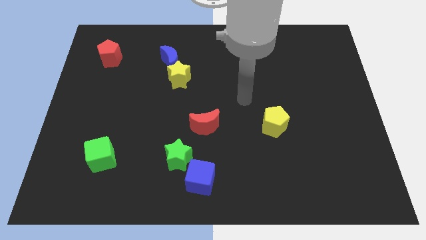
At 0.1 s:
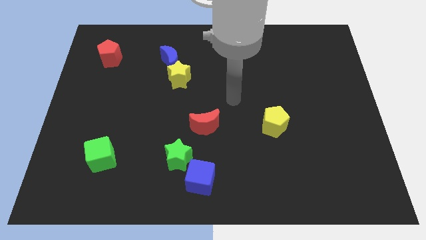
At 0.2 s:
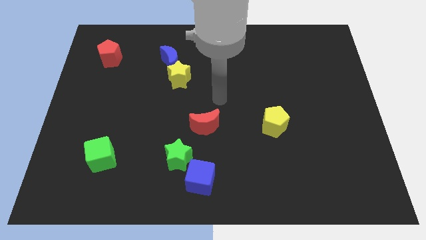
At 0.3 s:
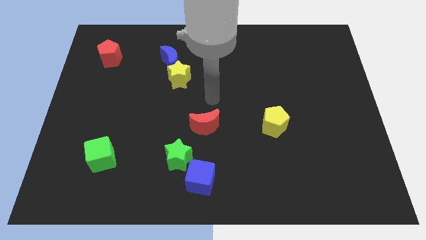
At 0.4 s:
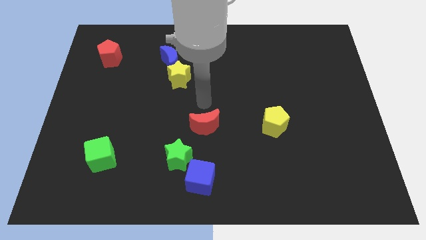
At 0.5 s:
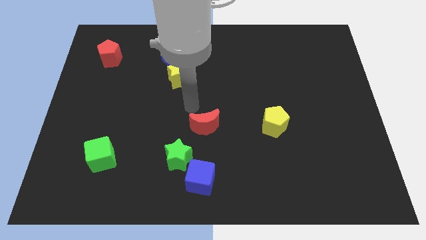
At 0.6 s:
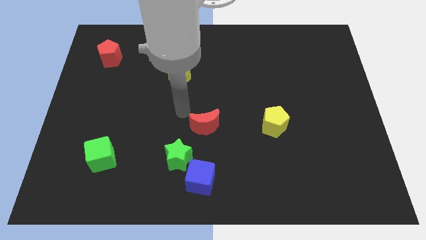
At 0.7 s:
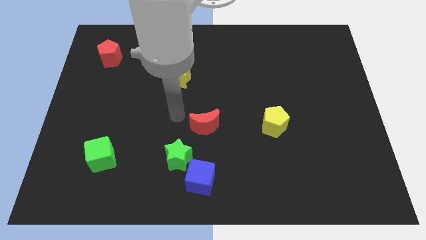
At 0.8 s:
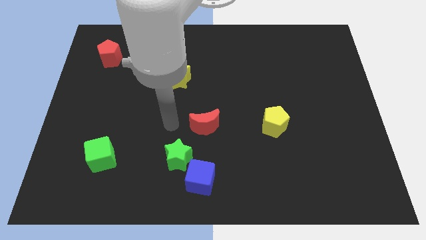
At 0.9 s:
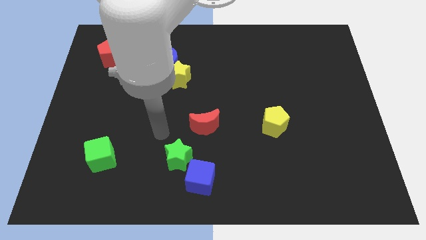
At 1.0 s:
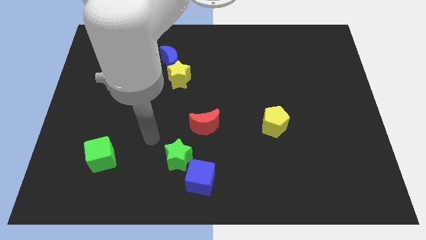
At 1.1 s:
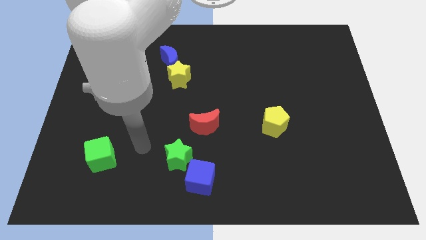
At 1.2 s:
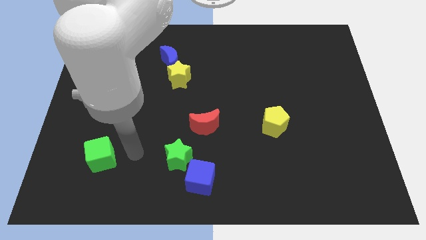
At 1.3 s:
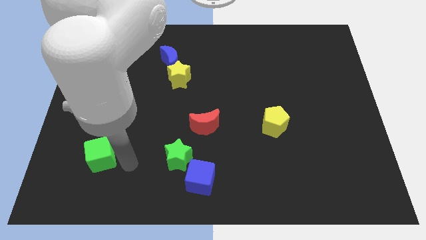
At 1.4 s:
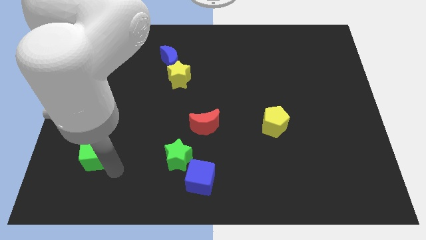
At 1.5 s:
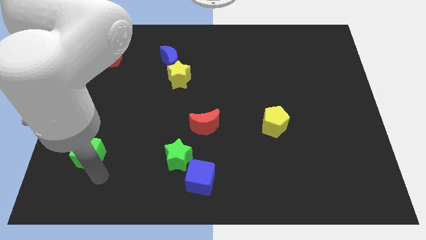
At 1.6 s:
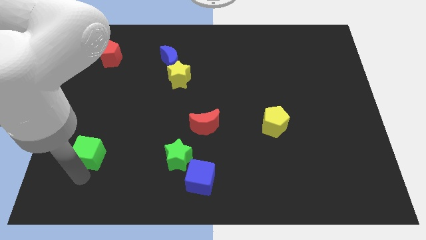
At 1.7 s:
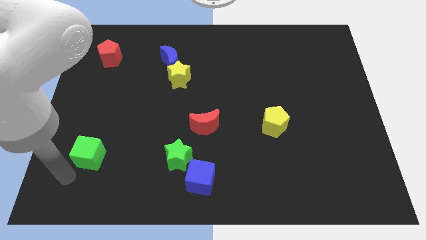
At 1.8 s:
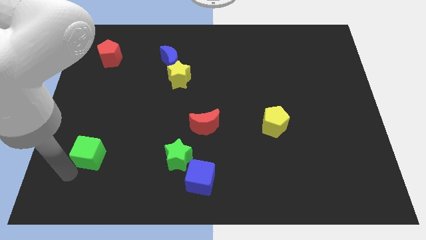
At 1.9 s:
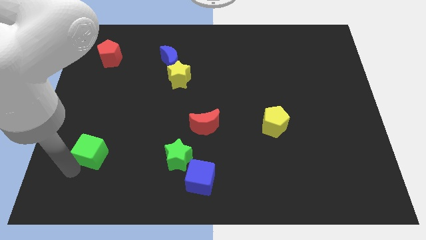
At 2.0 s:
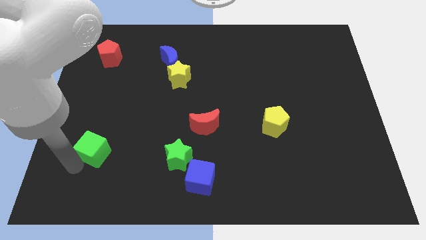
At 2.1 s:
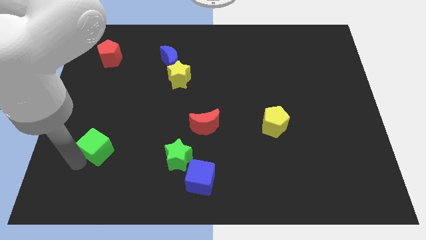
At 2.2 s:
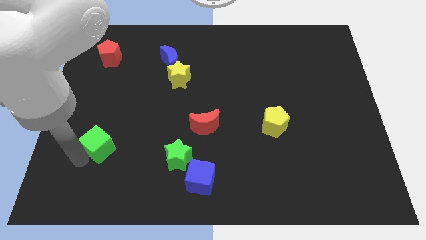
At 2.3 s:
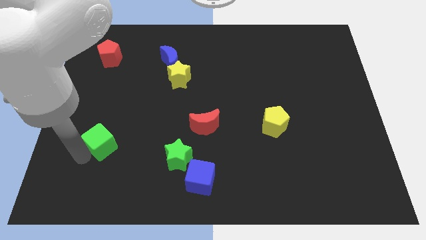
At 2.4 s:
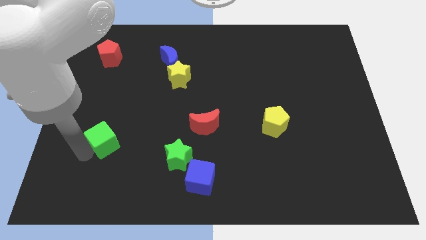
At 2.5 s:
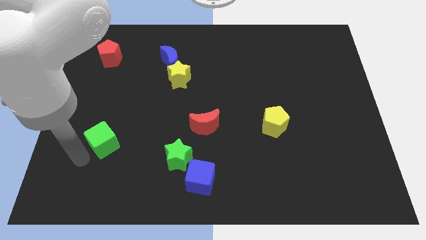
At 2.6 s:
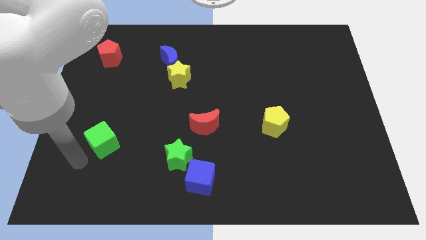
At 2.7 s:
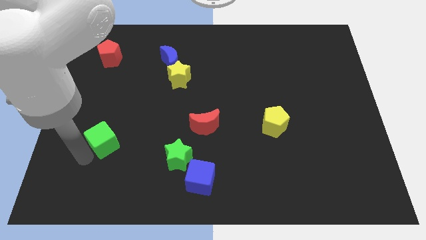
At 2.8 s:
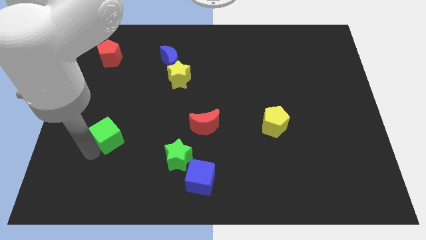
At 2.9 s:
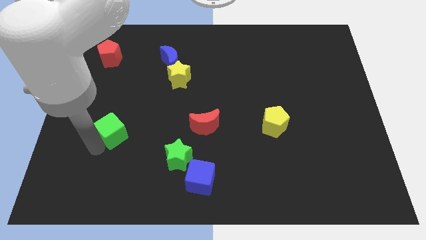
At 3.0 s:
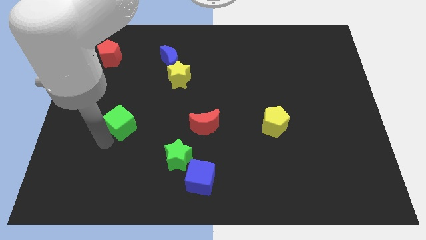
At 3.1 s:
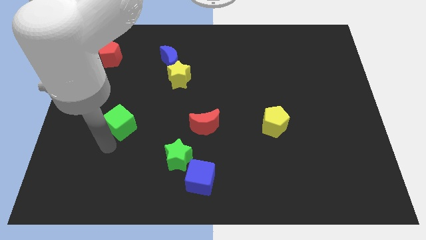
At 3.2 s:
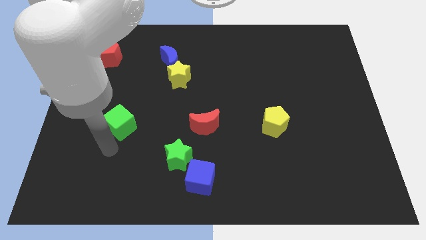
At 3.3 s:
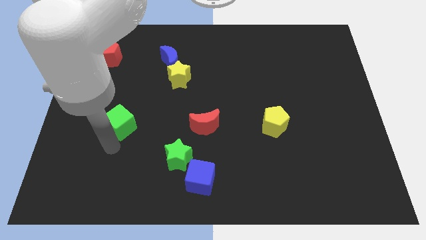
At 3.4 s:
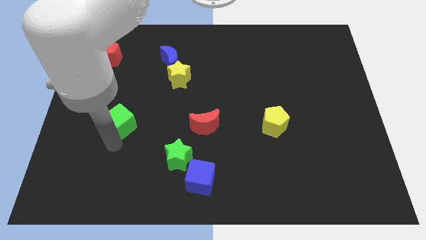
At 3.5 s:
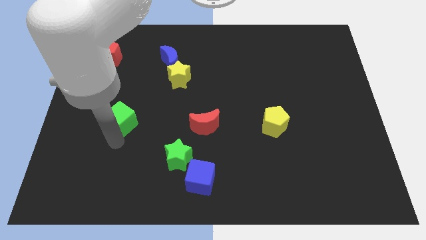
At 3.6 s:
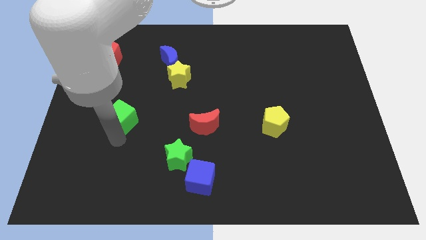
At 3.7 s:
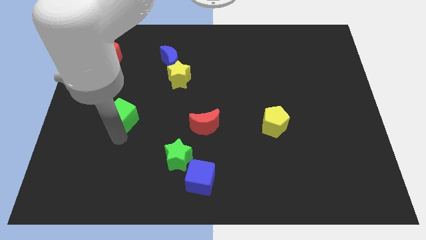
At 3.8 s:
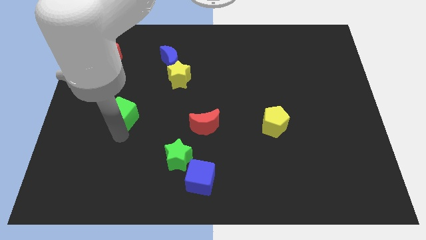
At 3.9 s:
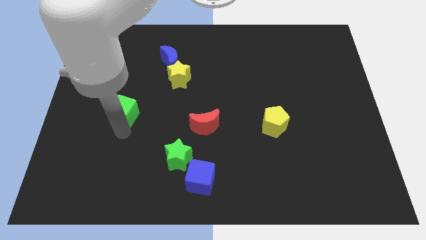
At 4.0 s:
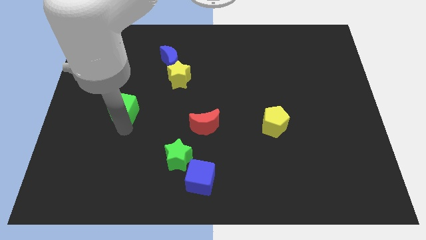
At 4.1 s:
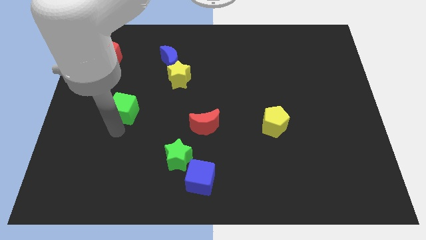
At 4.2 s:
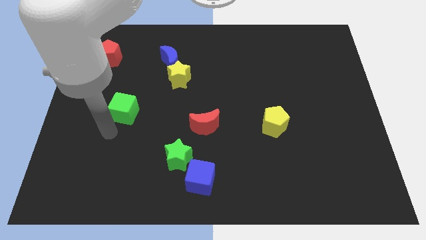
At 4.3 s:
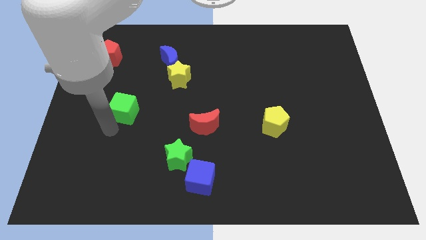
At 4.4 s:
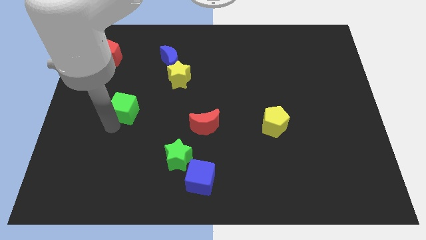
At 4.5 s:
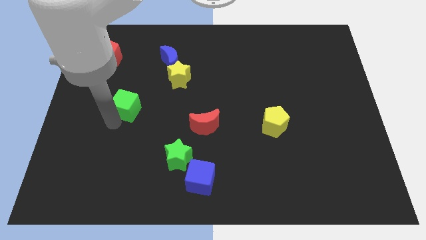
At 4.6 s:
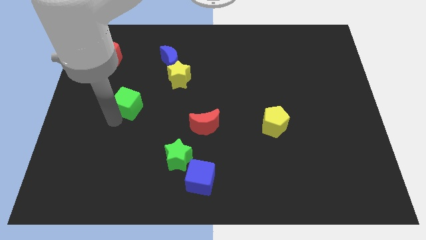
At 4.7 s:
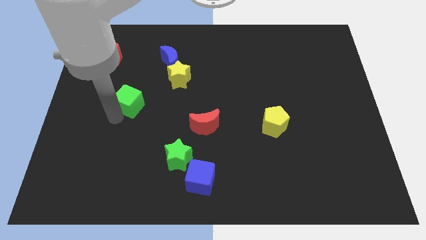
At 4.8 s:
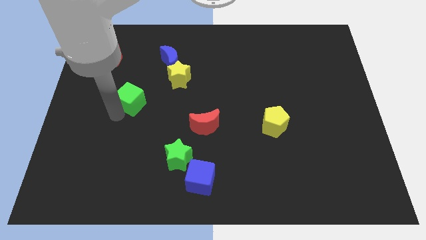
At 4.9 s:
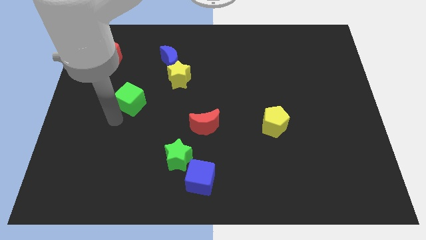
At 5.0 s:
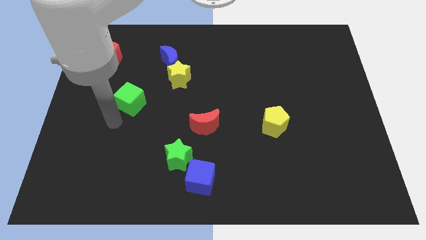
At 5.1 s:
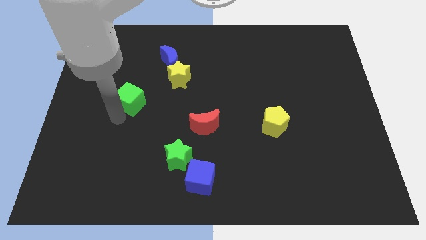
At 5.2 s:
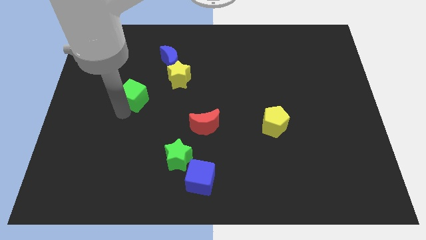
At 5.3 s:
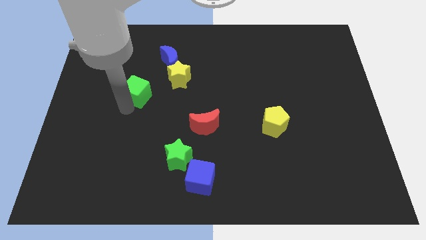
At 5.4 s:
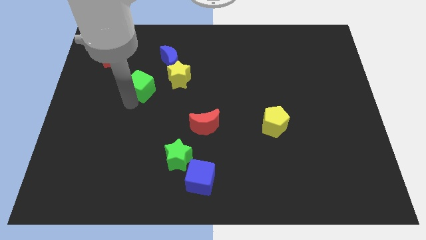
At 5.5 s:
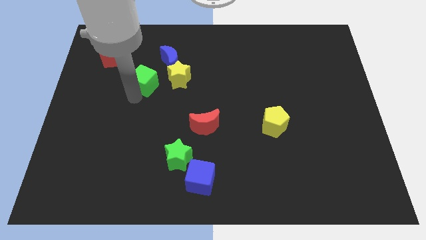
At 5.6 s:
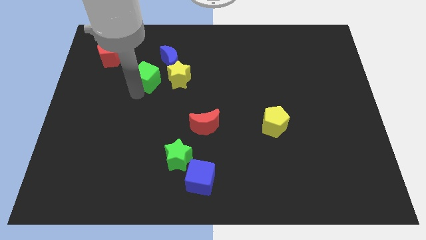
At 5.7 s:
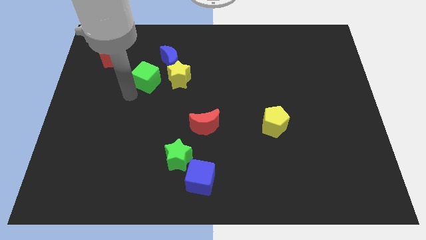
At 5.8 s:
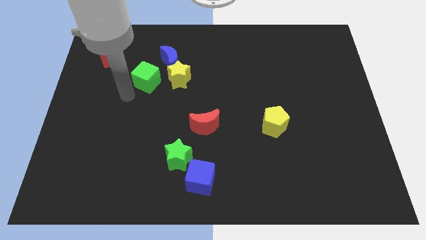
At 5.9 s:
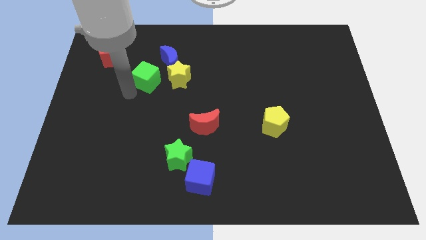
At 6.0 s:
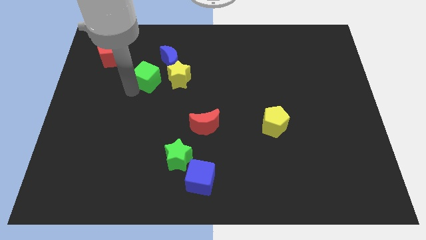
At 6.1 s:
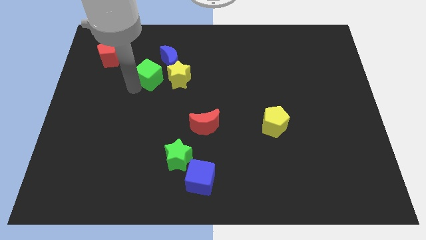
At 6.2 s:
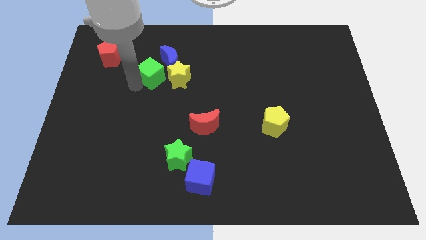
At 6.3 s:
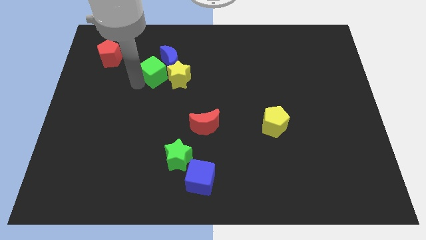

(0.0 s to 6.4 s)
put the green cube to the blue moon

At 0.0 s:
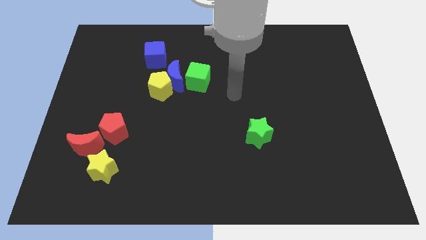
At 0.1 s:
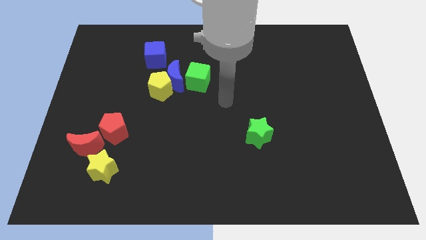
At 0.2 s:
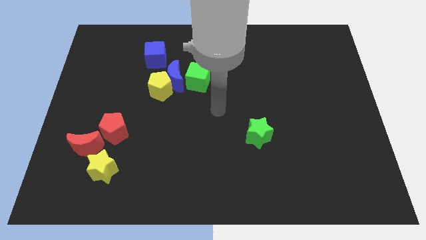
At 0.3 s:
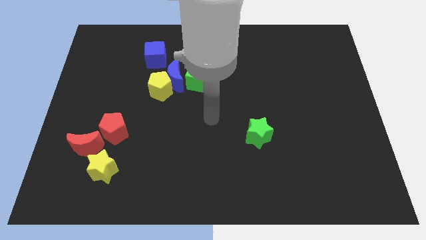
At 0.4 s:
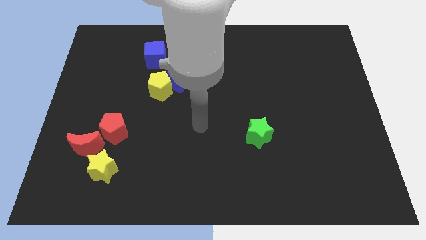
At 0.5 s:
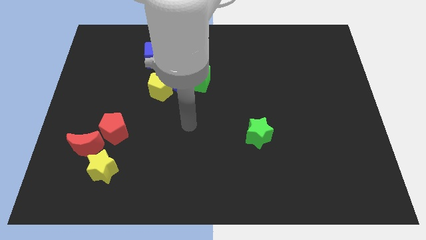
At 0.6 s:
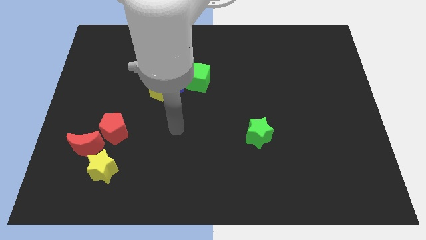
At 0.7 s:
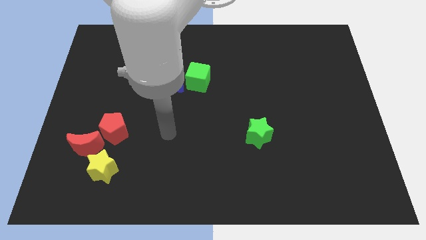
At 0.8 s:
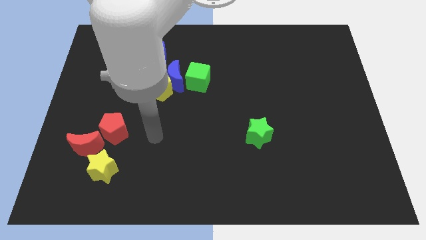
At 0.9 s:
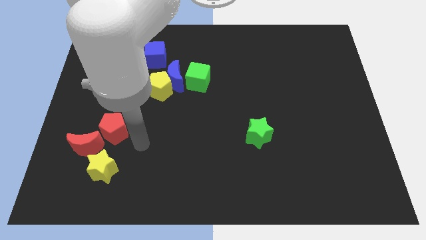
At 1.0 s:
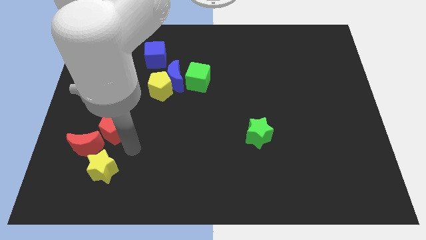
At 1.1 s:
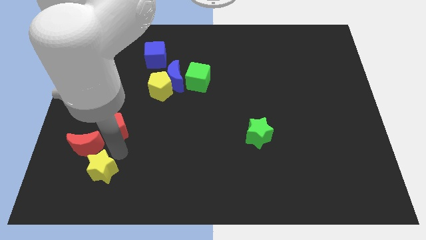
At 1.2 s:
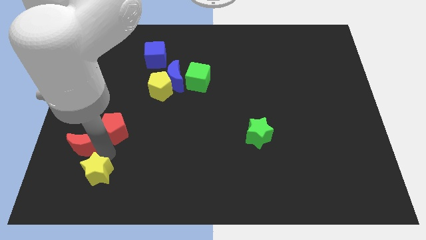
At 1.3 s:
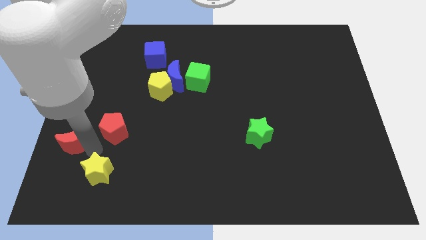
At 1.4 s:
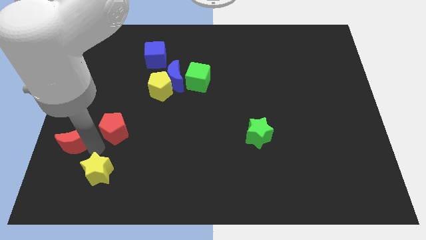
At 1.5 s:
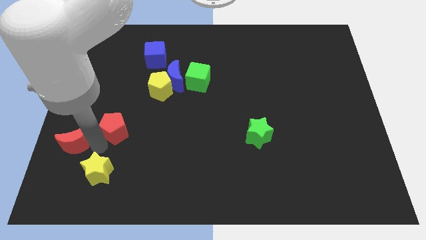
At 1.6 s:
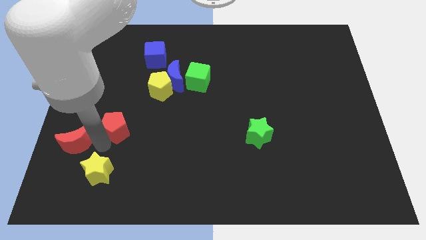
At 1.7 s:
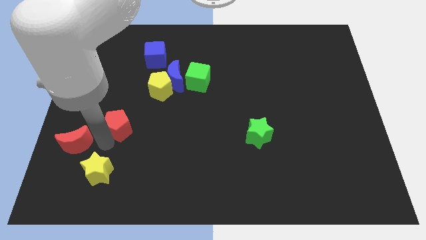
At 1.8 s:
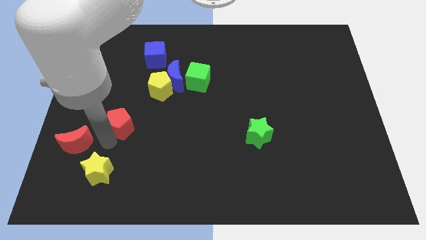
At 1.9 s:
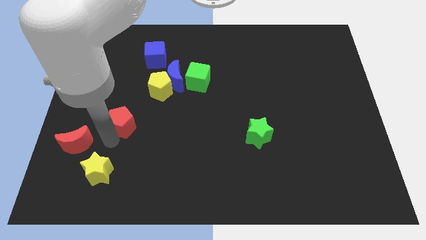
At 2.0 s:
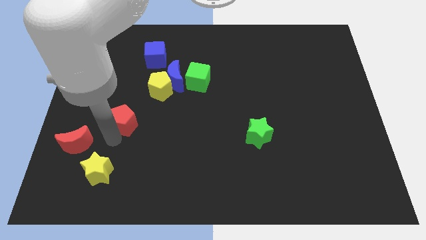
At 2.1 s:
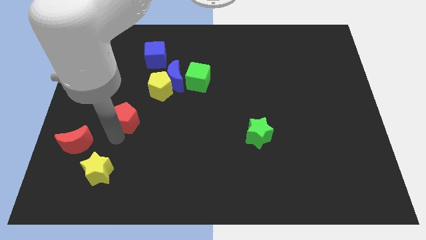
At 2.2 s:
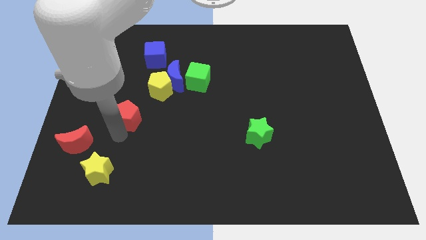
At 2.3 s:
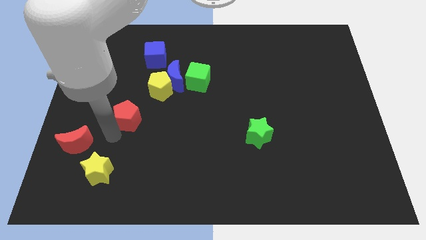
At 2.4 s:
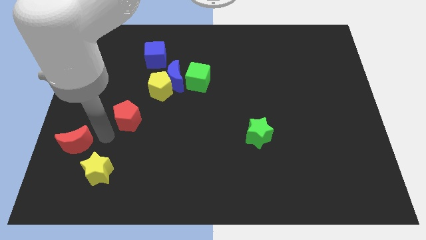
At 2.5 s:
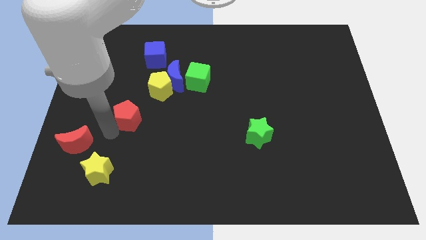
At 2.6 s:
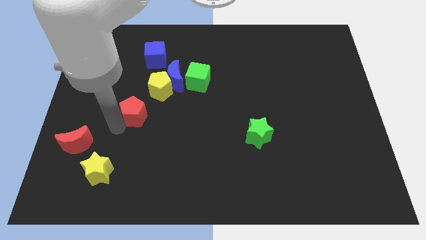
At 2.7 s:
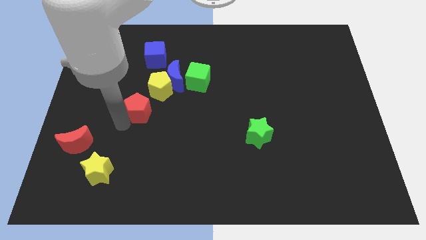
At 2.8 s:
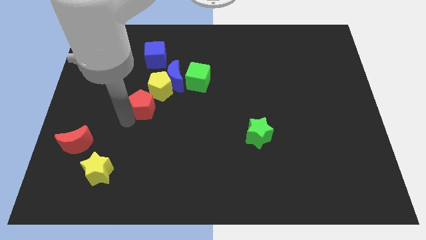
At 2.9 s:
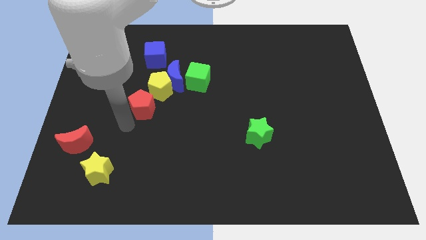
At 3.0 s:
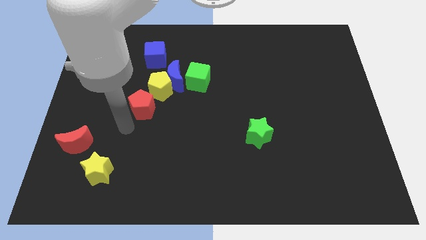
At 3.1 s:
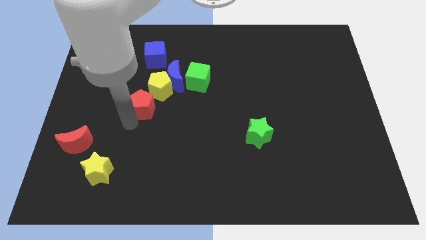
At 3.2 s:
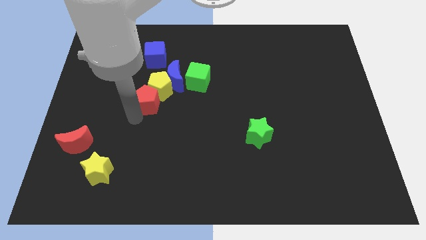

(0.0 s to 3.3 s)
move the red pentagon to the yellow pentagon
